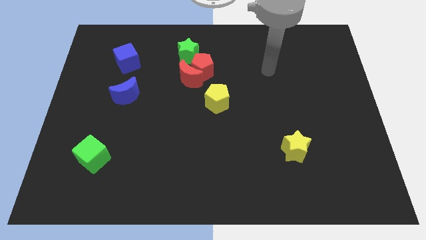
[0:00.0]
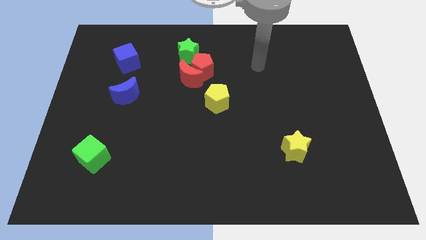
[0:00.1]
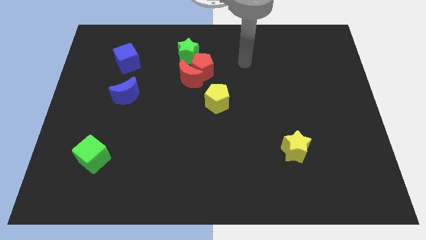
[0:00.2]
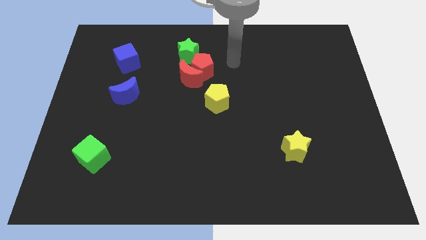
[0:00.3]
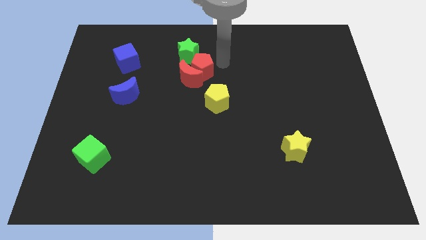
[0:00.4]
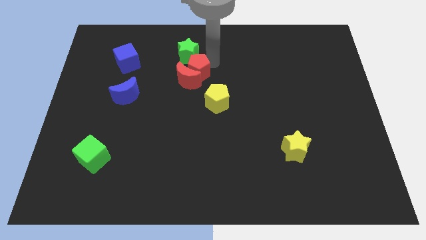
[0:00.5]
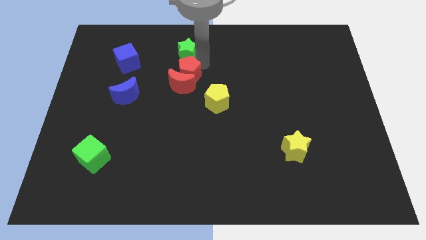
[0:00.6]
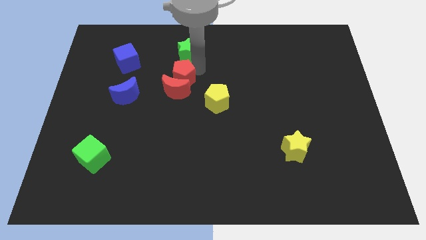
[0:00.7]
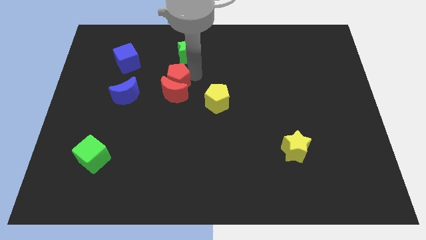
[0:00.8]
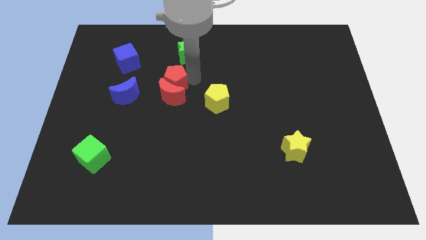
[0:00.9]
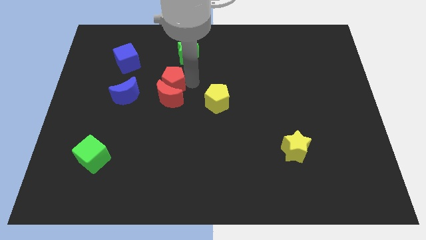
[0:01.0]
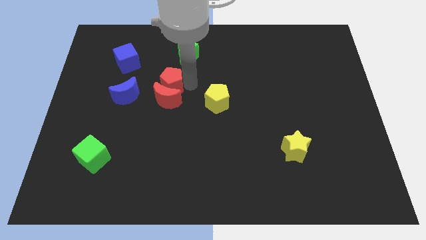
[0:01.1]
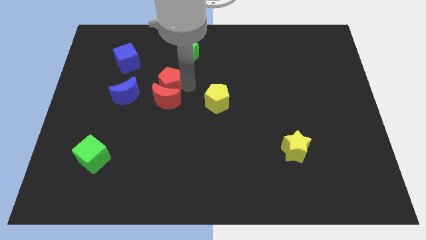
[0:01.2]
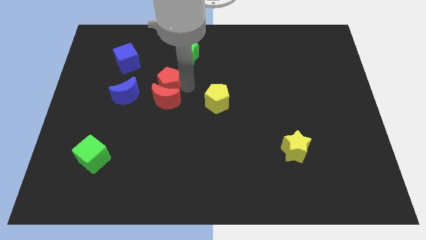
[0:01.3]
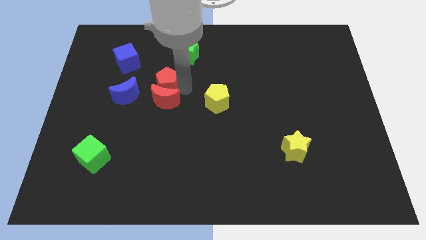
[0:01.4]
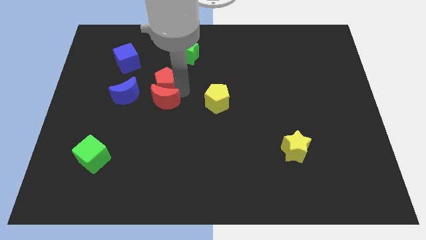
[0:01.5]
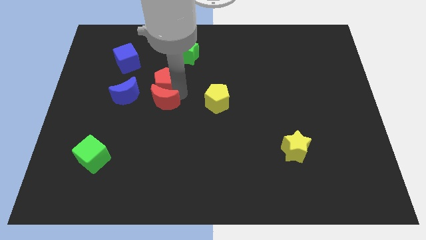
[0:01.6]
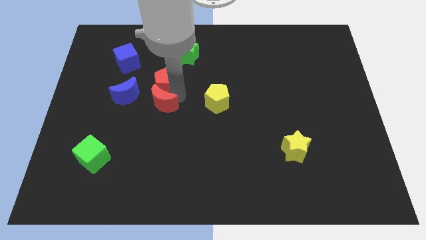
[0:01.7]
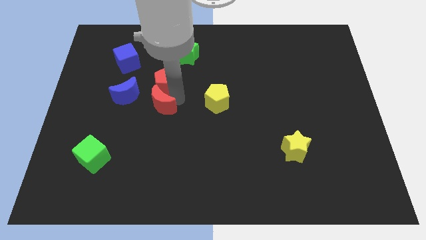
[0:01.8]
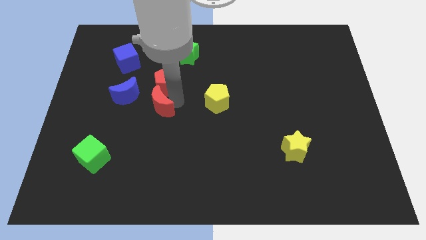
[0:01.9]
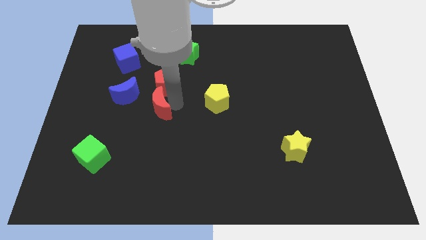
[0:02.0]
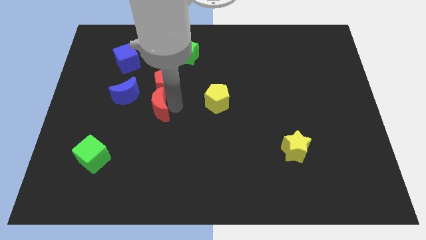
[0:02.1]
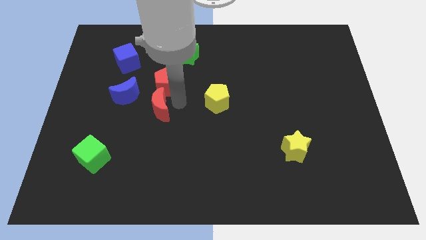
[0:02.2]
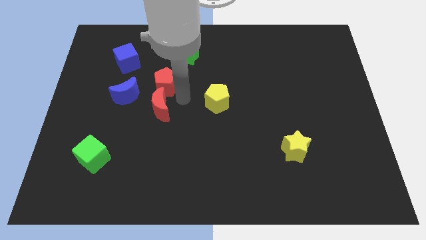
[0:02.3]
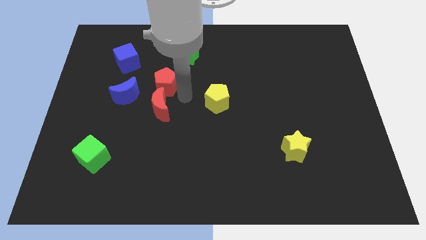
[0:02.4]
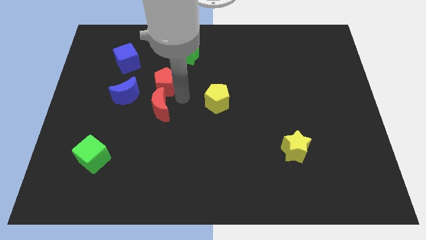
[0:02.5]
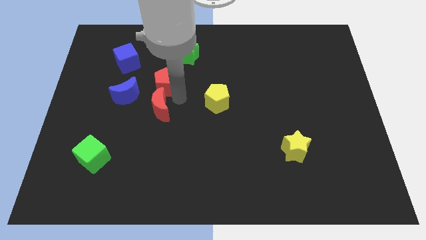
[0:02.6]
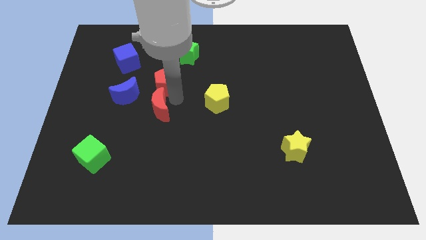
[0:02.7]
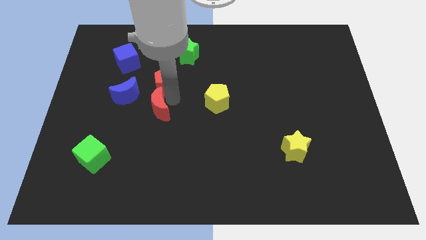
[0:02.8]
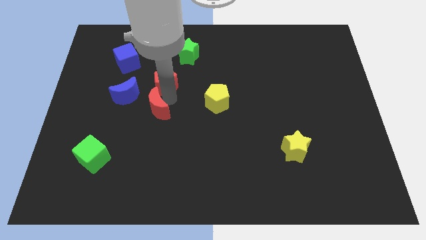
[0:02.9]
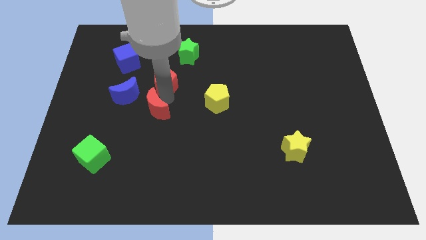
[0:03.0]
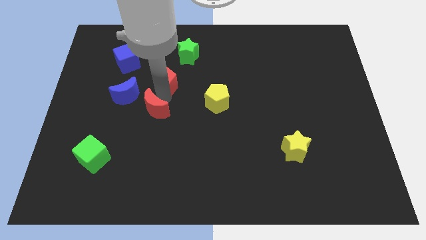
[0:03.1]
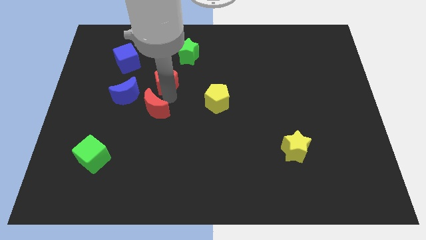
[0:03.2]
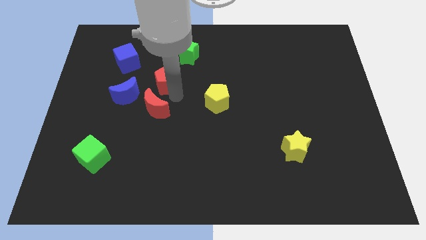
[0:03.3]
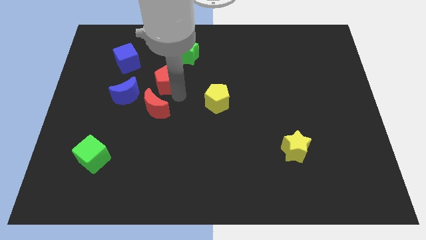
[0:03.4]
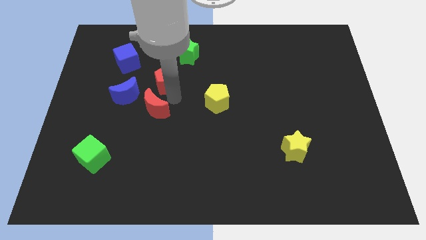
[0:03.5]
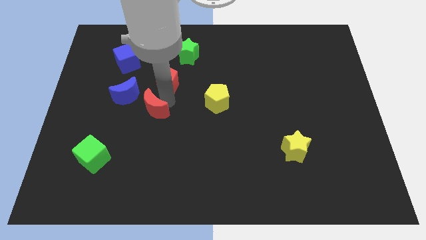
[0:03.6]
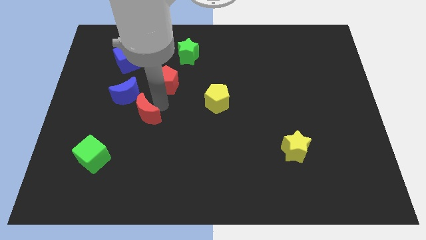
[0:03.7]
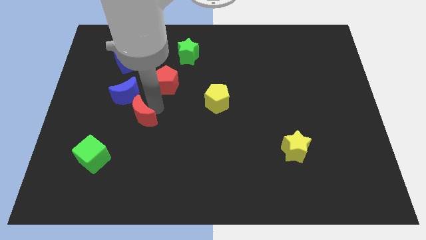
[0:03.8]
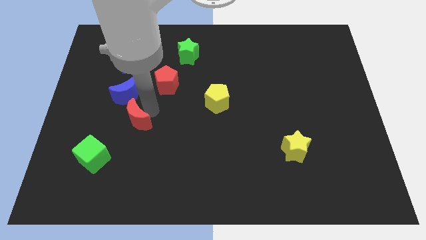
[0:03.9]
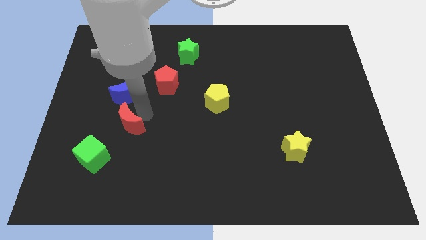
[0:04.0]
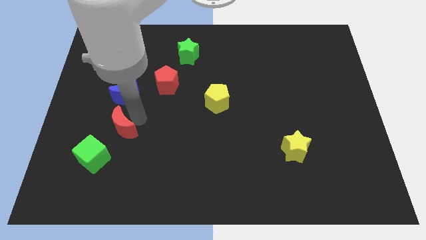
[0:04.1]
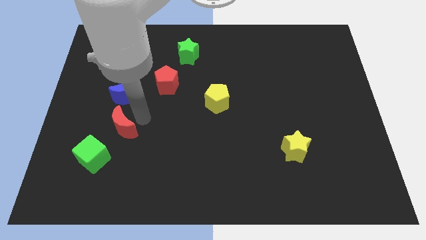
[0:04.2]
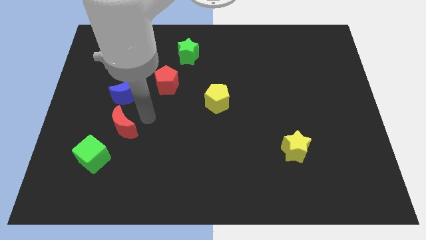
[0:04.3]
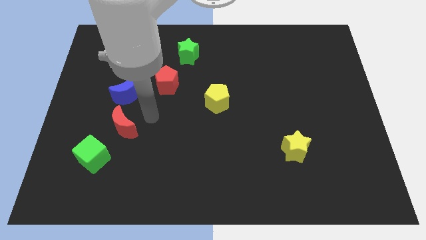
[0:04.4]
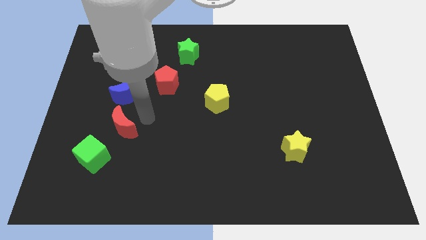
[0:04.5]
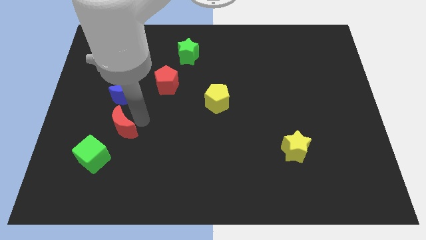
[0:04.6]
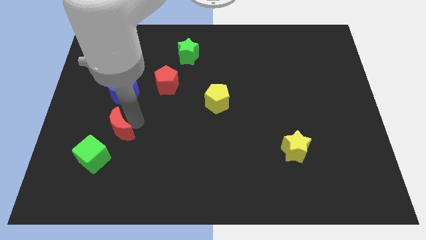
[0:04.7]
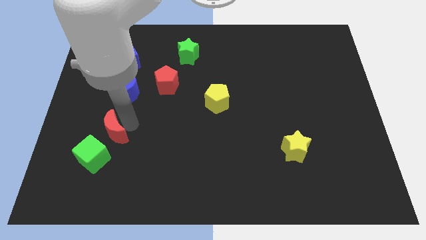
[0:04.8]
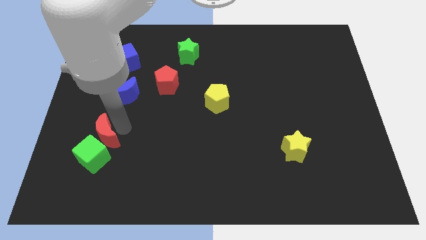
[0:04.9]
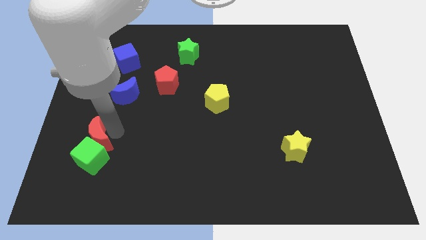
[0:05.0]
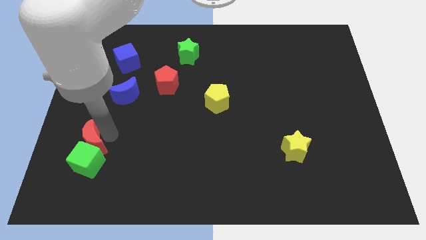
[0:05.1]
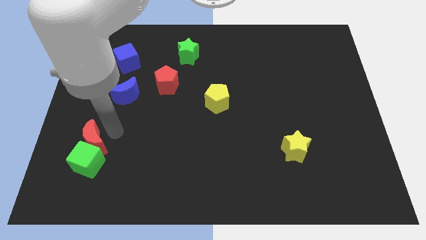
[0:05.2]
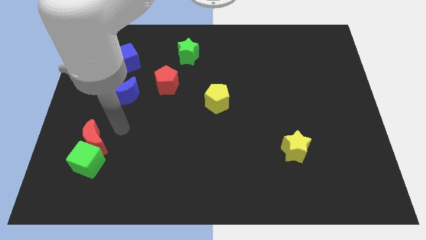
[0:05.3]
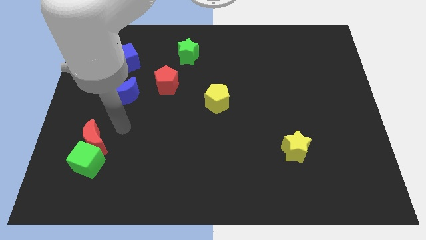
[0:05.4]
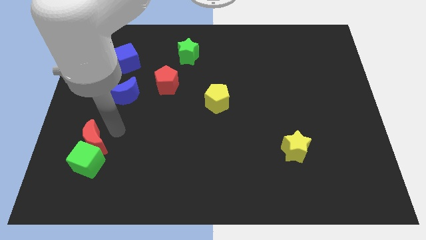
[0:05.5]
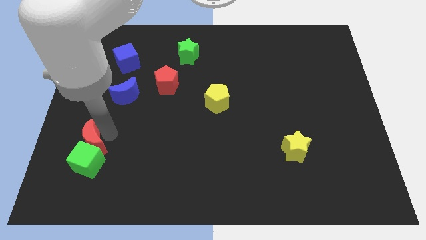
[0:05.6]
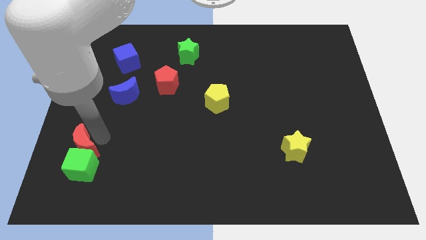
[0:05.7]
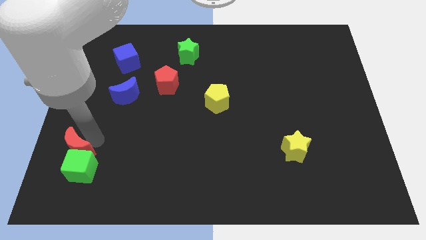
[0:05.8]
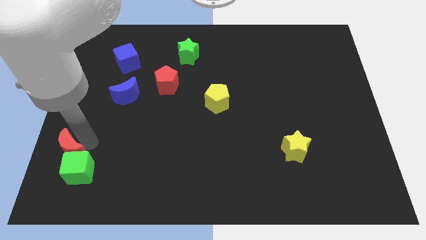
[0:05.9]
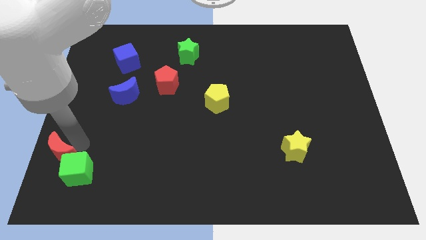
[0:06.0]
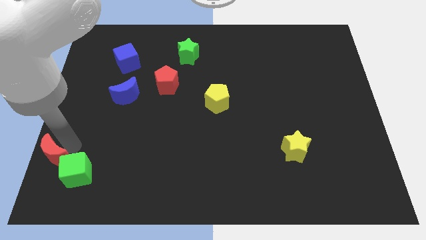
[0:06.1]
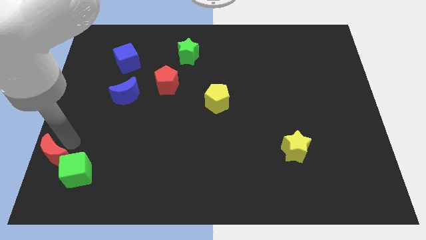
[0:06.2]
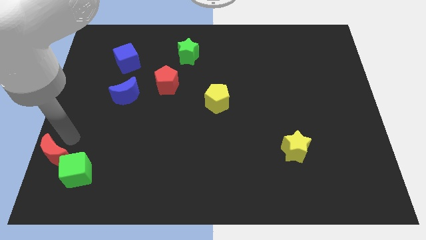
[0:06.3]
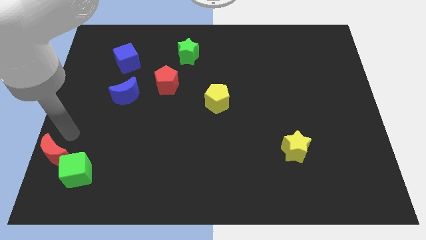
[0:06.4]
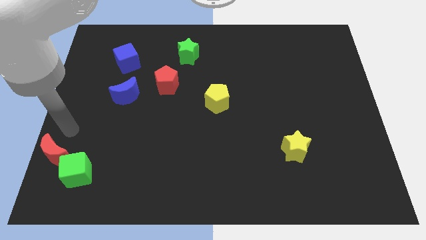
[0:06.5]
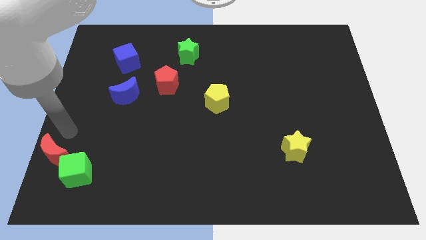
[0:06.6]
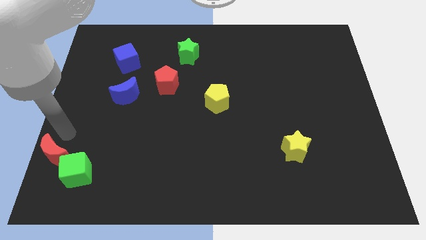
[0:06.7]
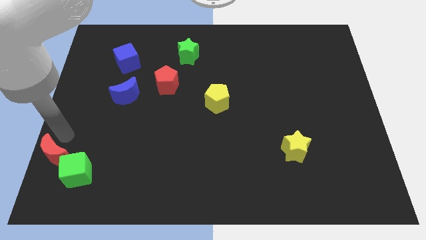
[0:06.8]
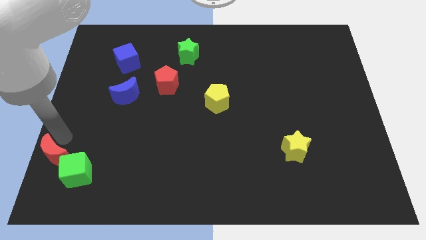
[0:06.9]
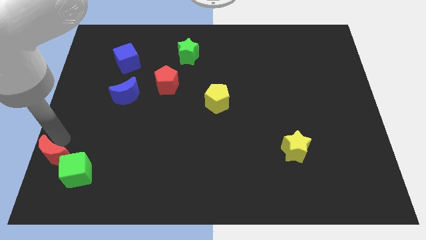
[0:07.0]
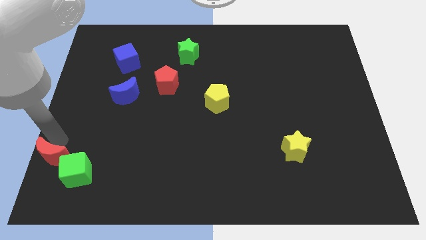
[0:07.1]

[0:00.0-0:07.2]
move the red moon to the lower left corner
